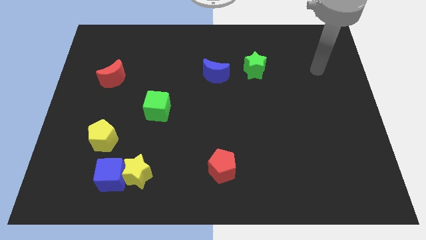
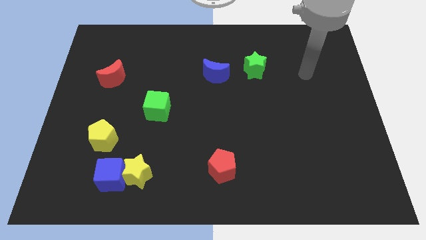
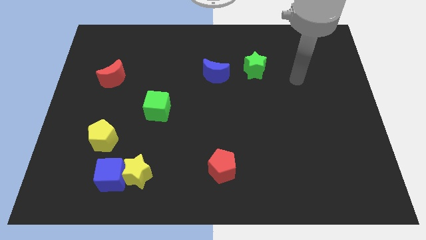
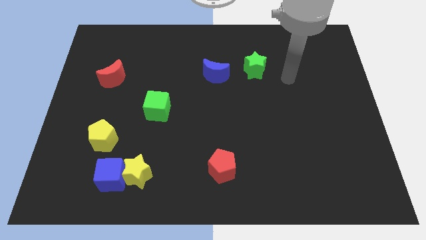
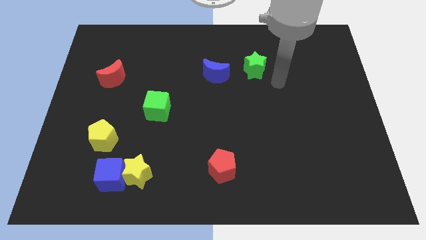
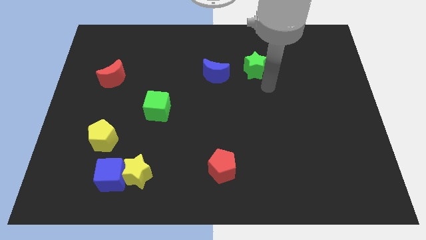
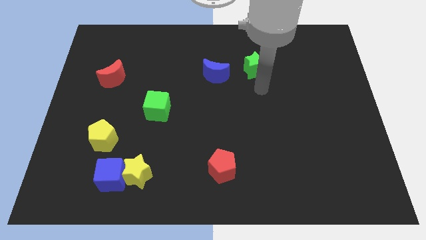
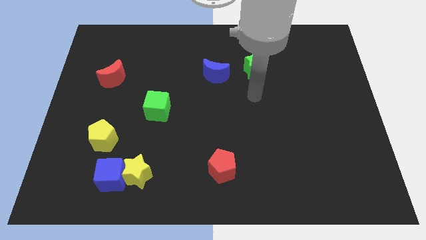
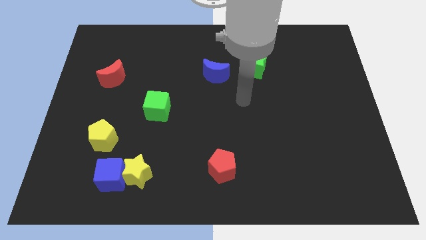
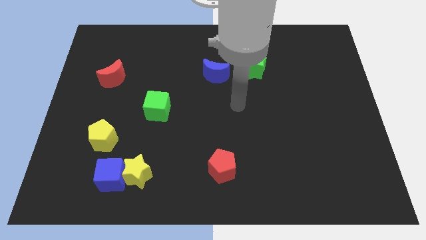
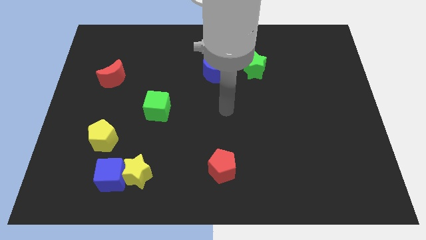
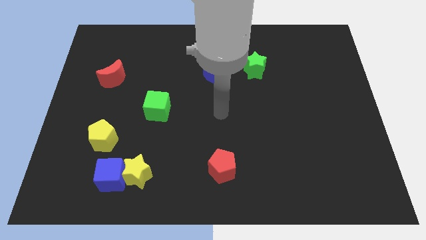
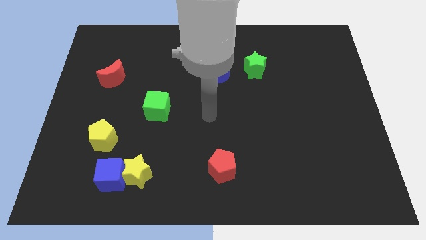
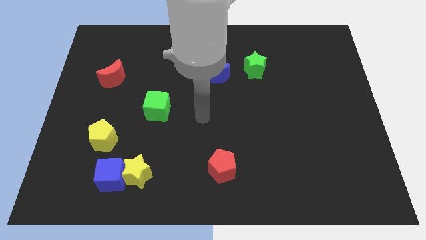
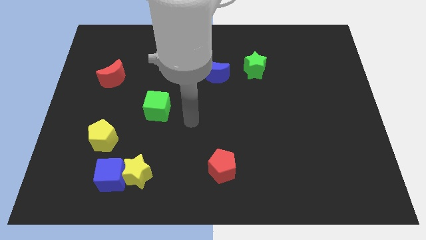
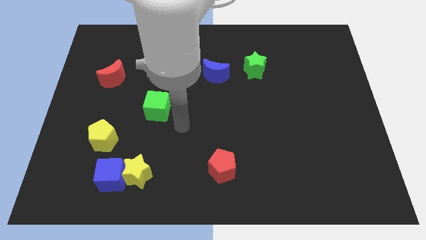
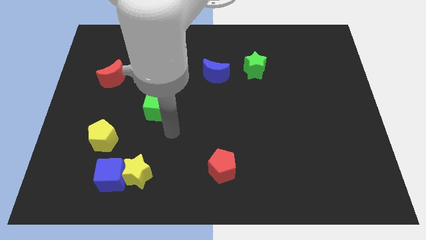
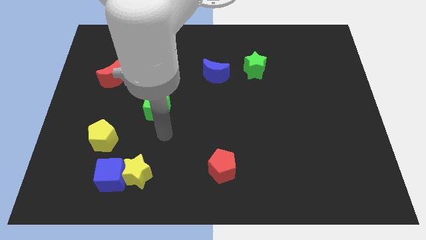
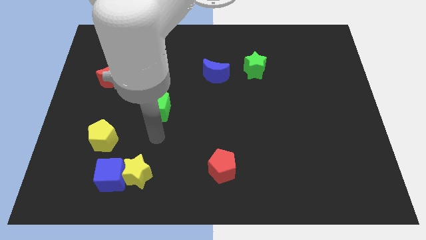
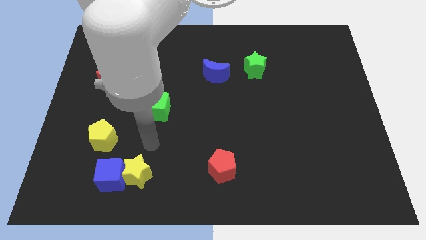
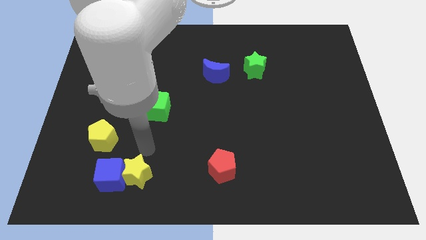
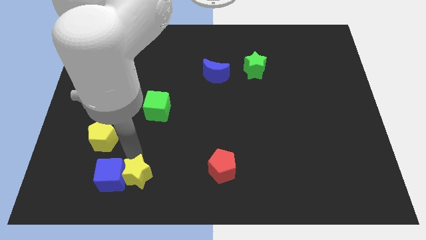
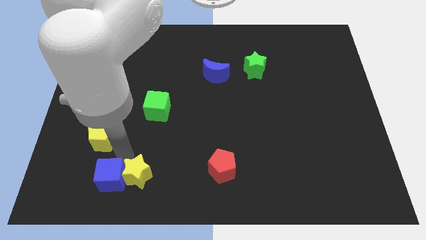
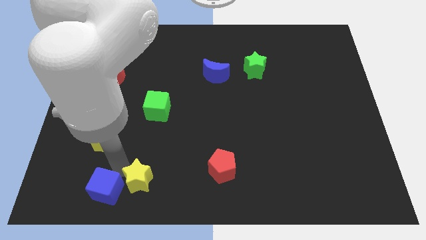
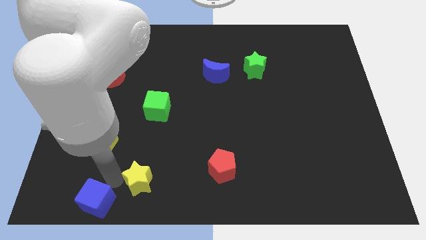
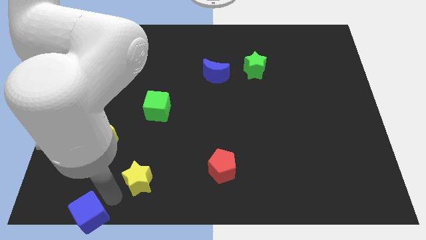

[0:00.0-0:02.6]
separate the yellow star from the blue cube

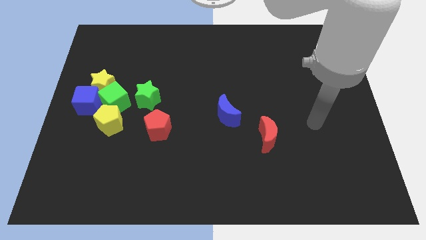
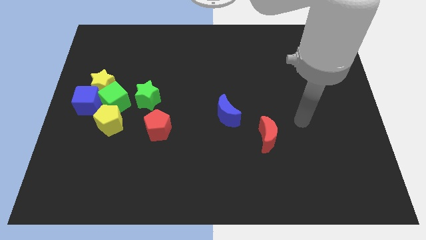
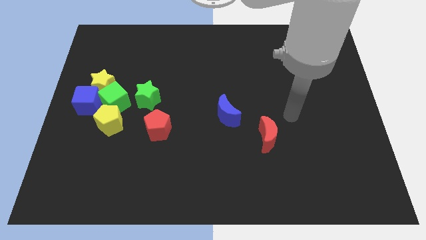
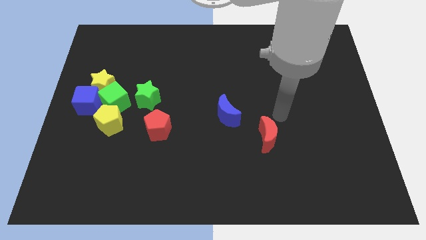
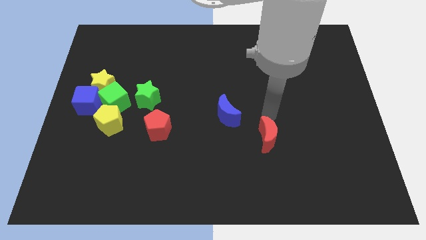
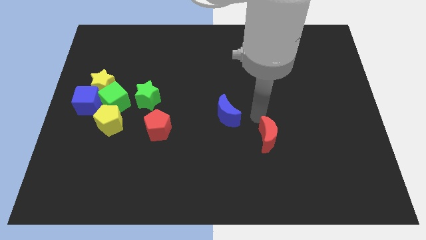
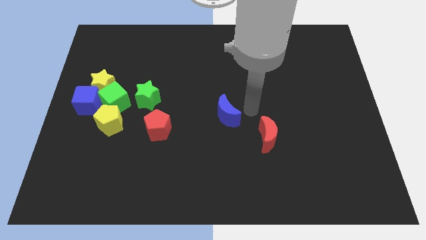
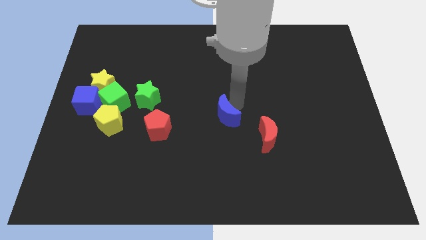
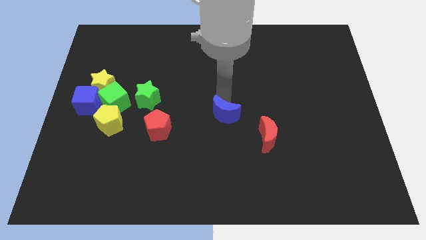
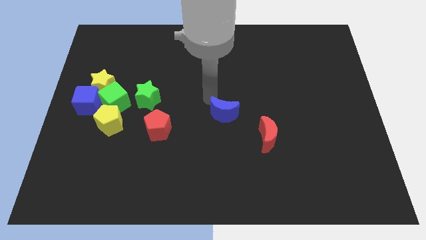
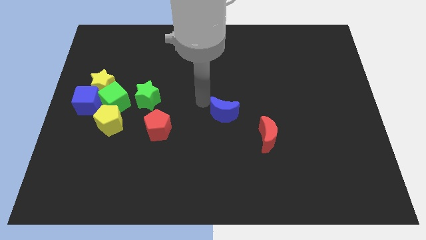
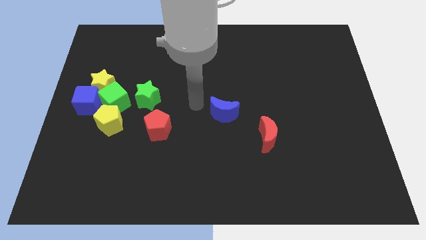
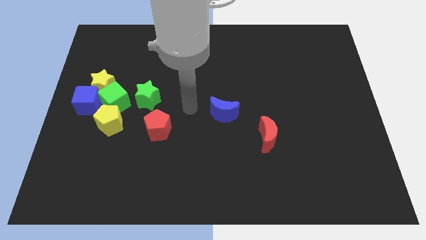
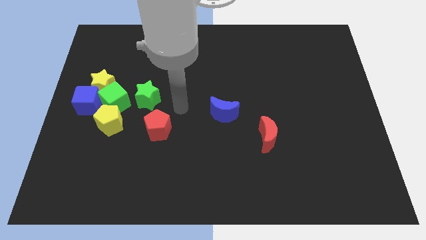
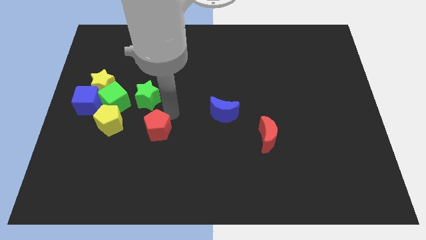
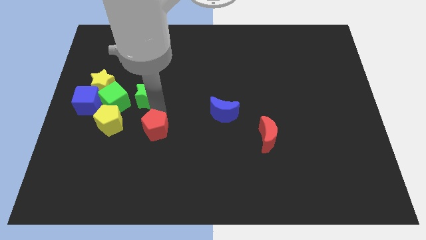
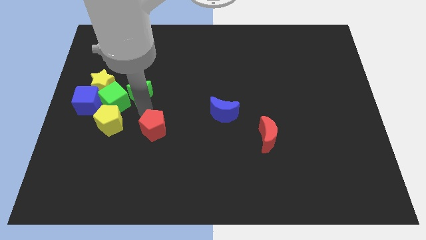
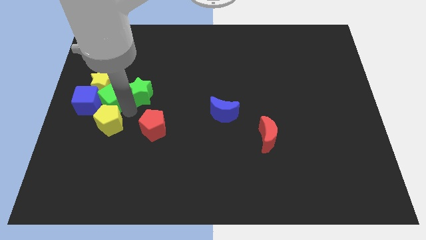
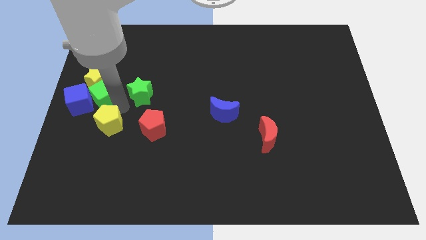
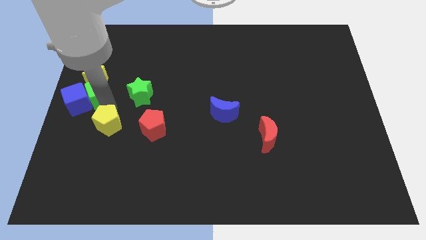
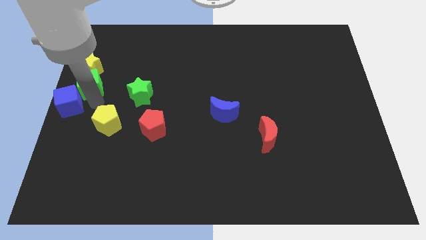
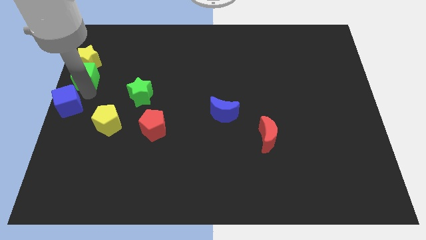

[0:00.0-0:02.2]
pull the yellow star apart from the green cube and blue cube

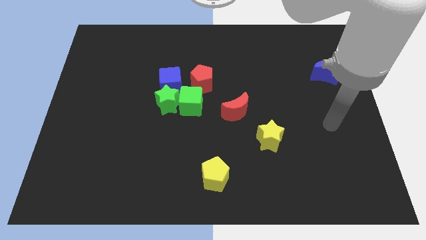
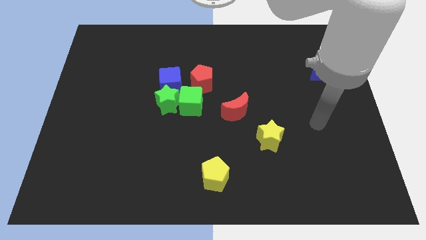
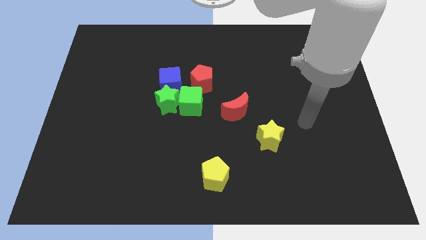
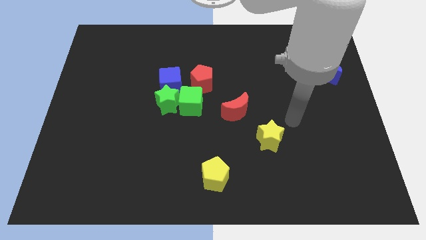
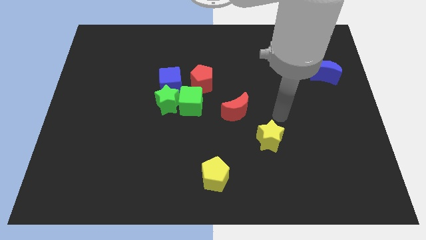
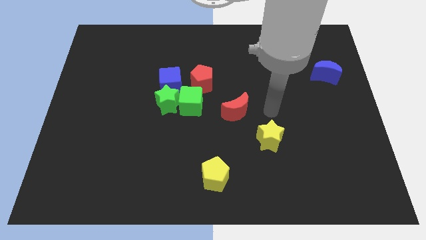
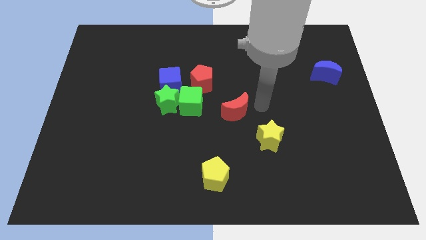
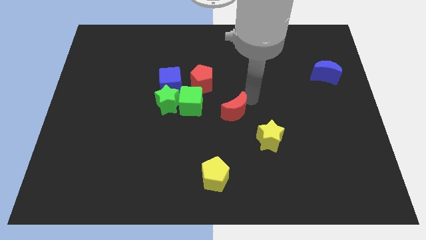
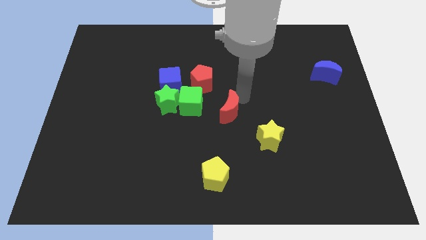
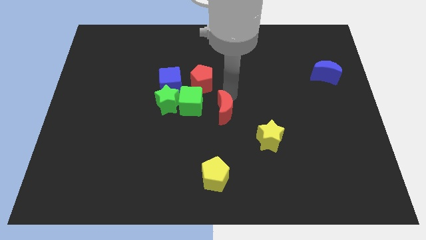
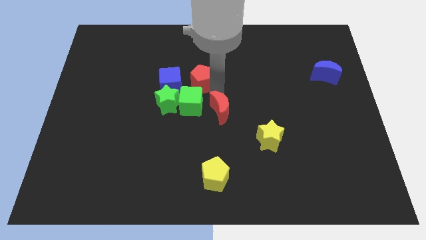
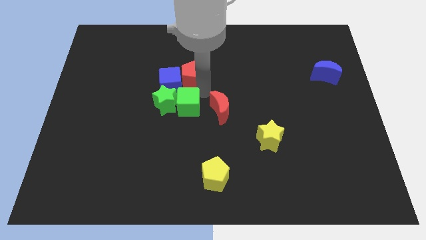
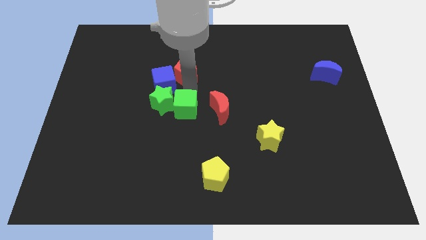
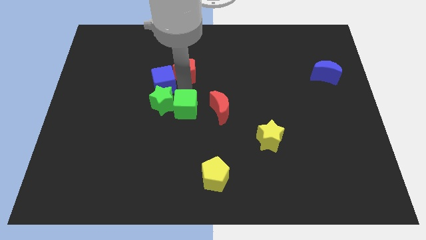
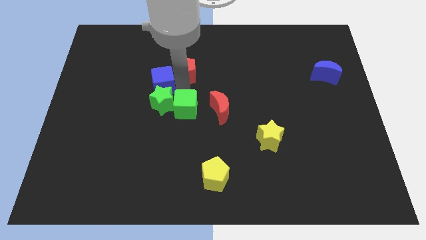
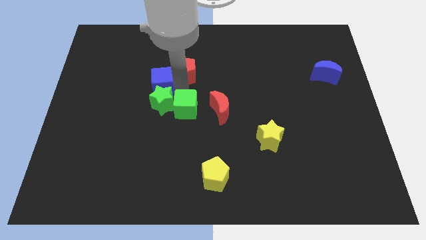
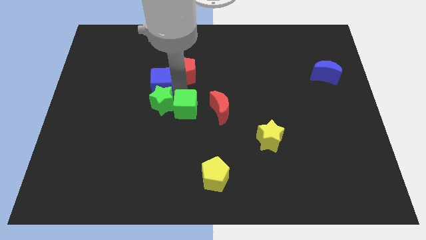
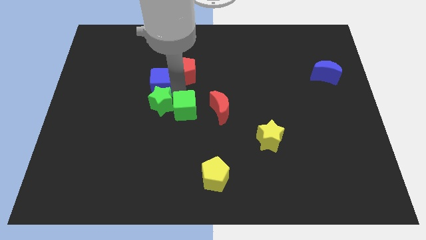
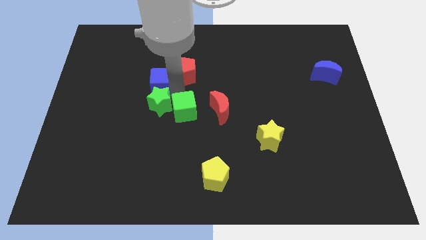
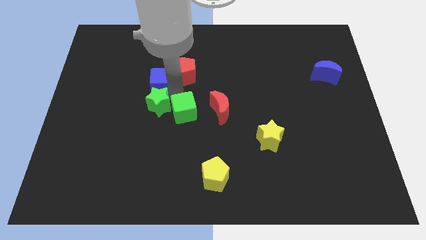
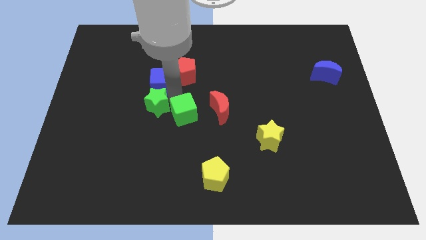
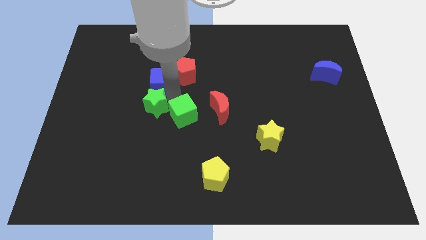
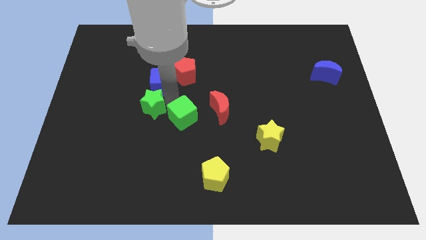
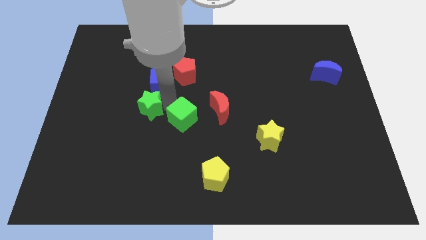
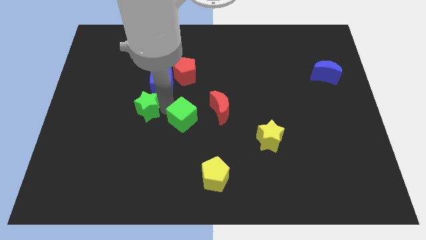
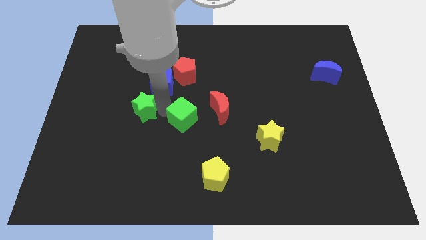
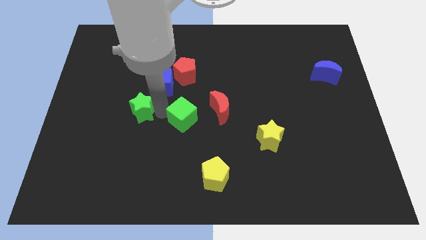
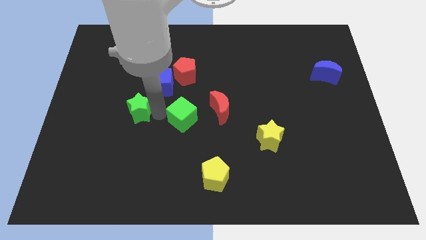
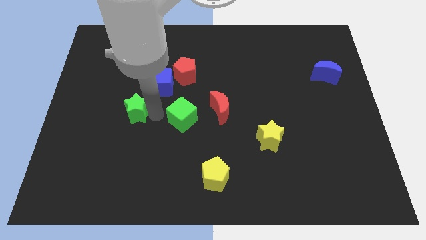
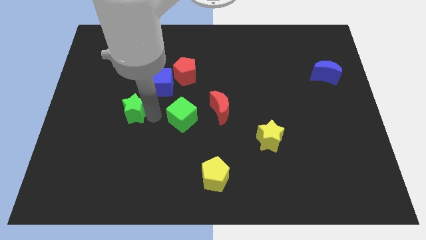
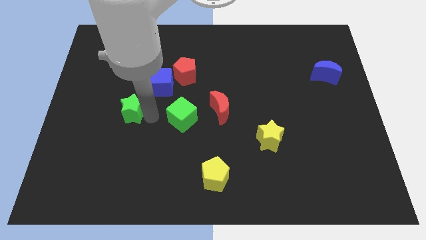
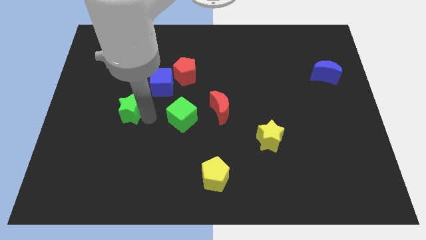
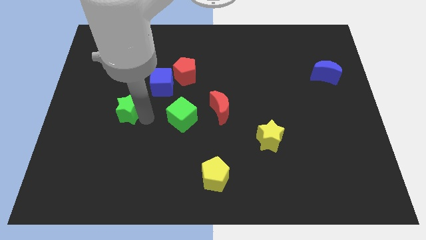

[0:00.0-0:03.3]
separate the green star from the green cube and blue cube

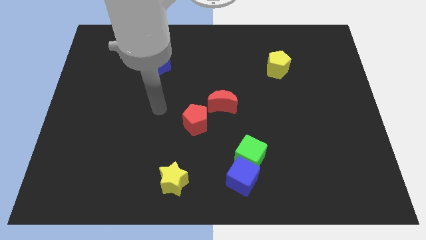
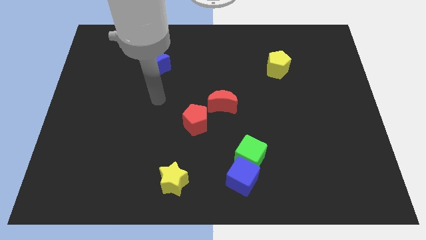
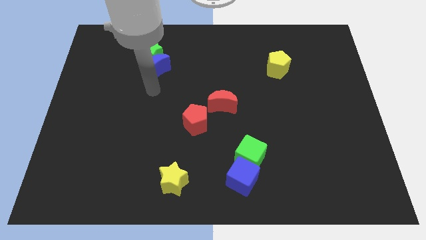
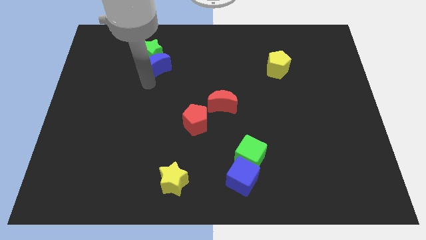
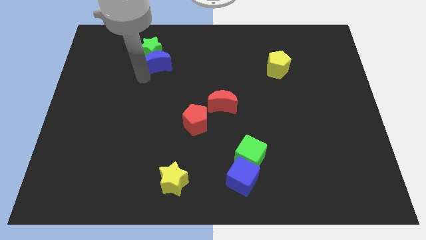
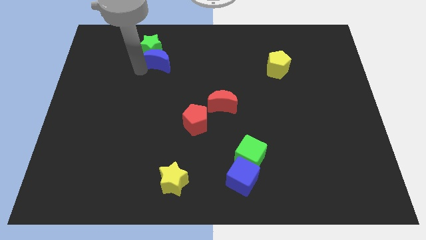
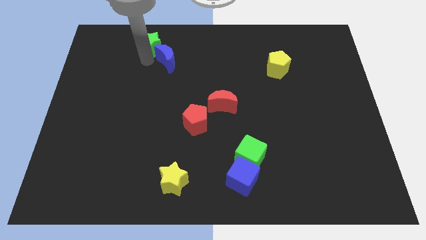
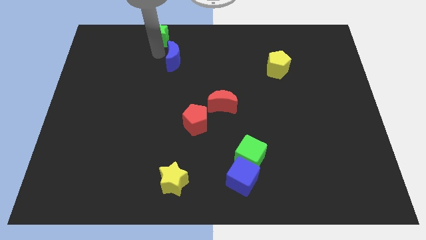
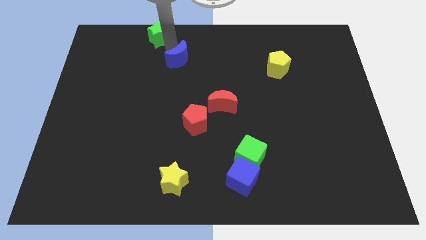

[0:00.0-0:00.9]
separate the blue moon from the green star

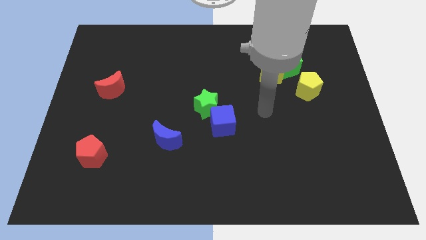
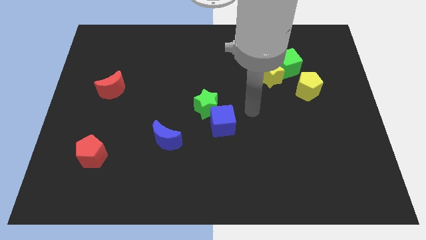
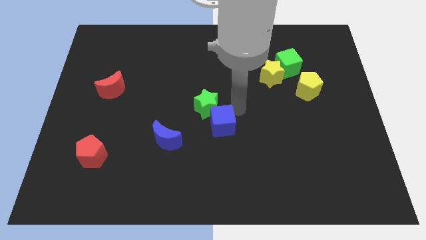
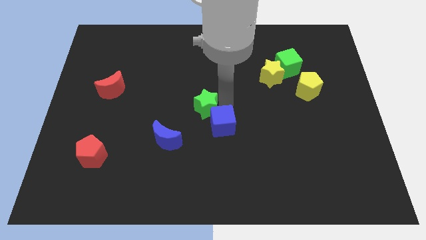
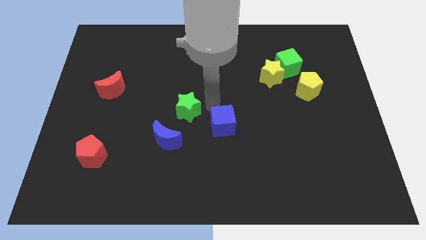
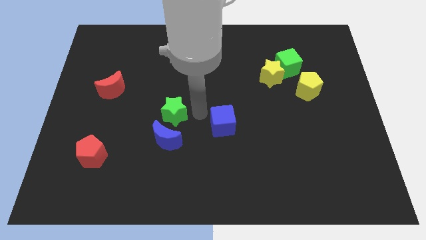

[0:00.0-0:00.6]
move the blue cube away from the green star
